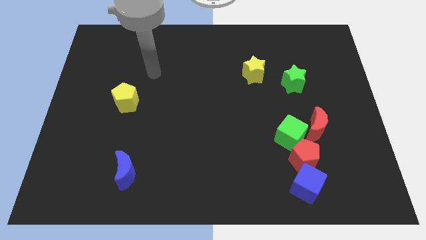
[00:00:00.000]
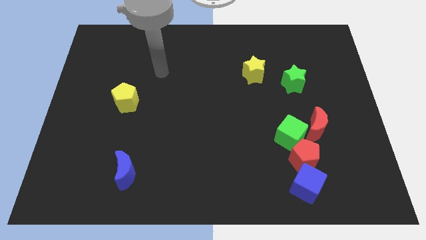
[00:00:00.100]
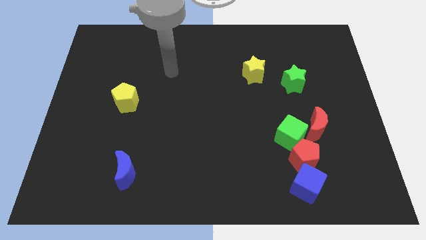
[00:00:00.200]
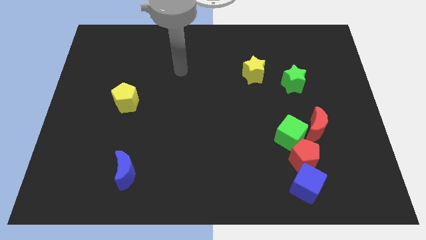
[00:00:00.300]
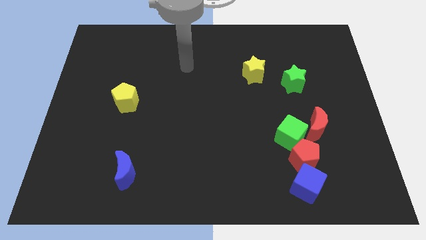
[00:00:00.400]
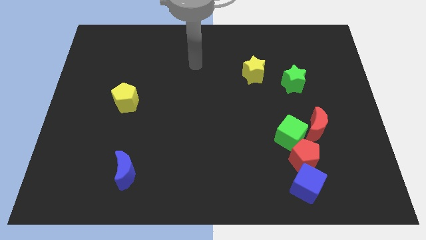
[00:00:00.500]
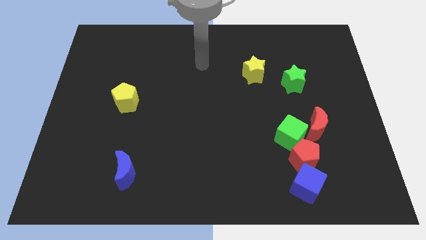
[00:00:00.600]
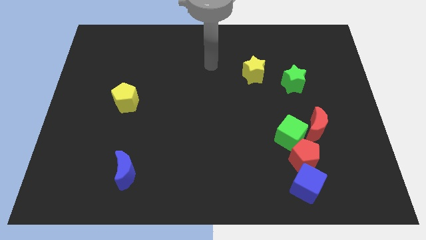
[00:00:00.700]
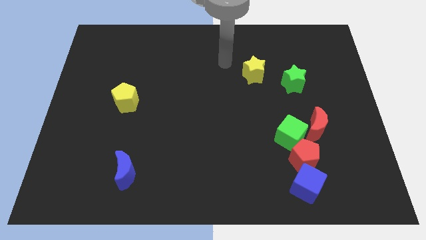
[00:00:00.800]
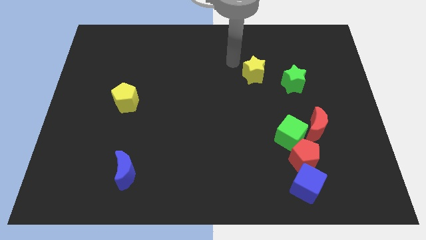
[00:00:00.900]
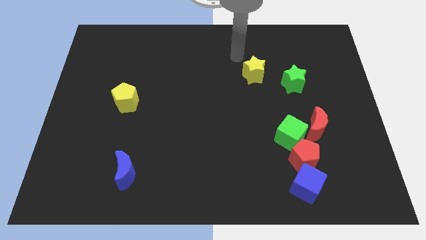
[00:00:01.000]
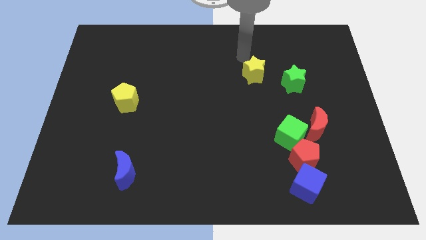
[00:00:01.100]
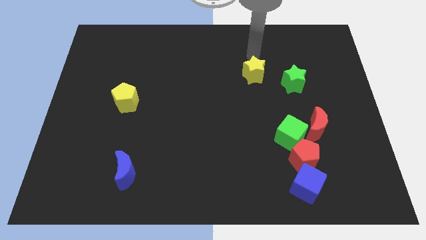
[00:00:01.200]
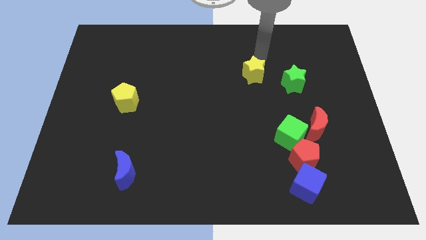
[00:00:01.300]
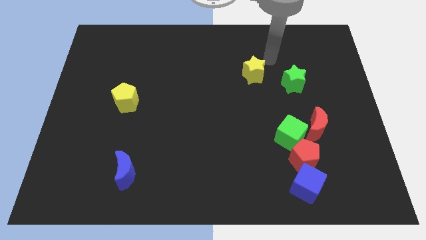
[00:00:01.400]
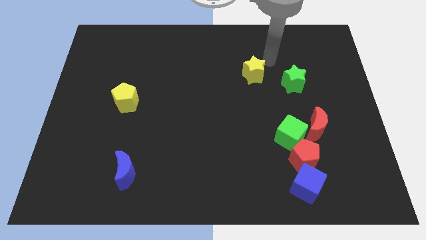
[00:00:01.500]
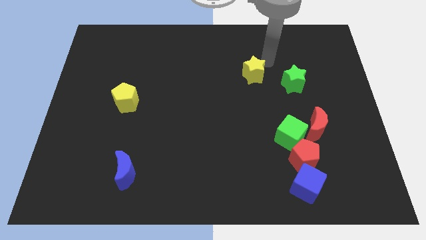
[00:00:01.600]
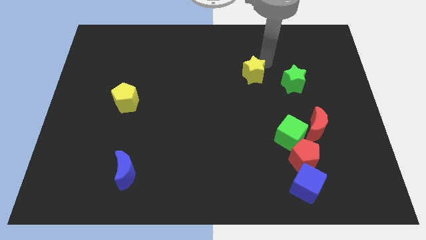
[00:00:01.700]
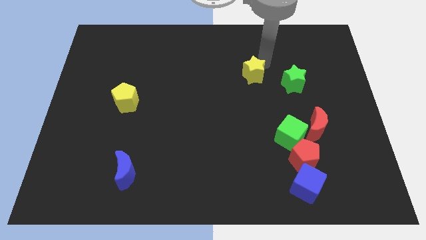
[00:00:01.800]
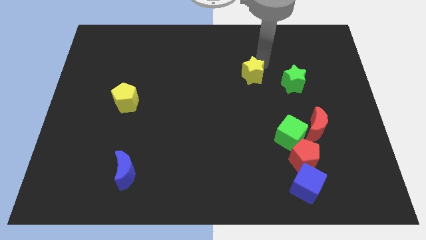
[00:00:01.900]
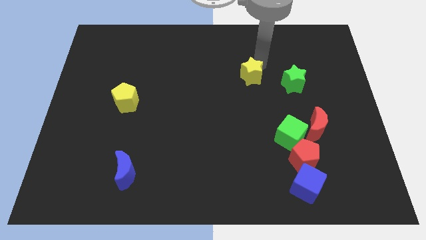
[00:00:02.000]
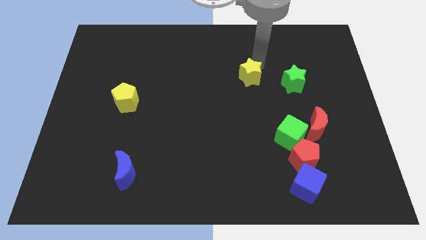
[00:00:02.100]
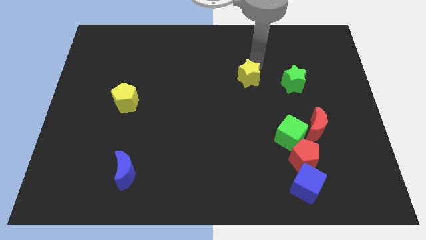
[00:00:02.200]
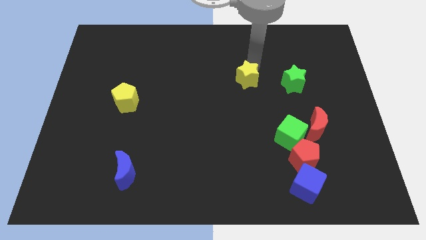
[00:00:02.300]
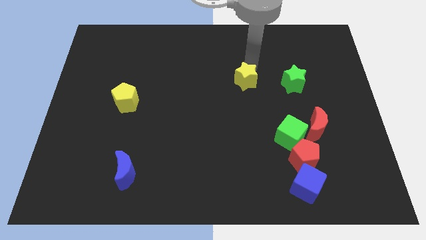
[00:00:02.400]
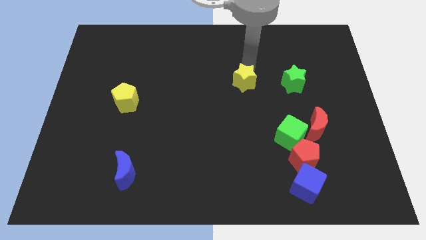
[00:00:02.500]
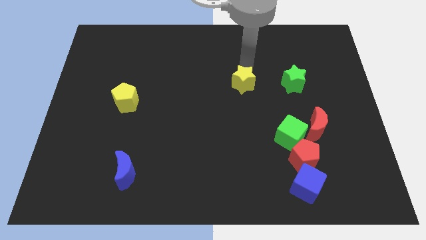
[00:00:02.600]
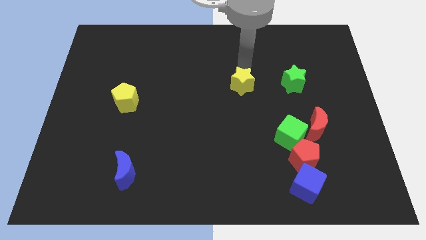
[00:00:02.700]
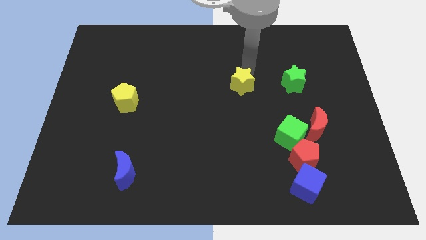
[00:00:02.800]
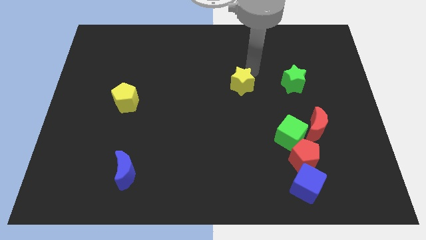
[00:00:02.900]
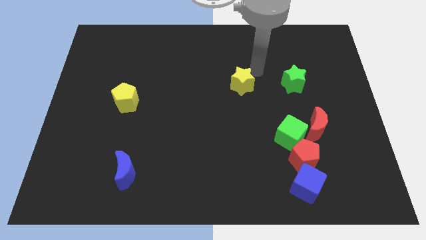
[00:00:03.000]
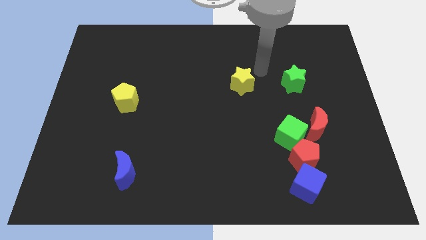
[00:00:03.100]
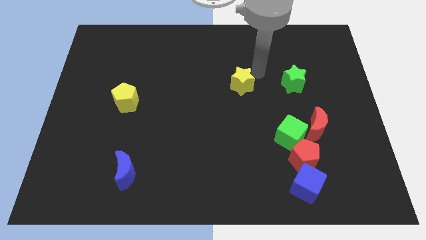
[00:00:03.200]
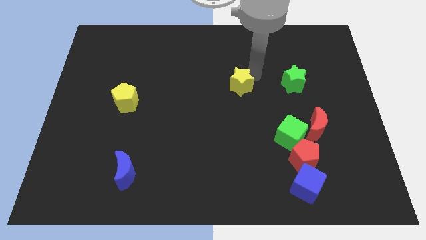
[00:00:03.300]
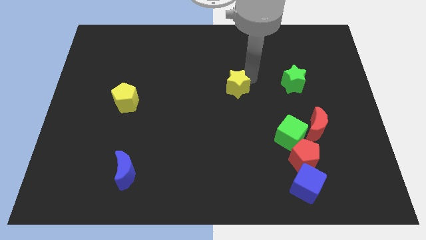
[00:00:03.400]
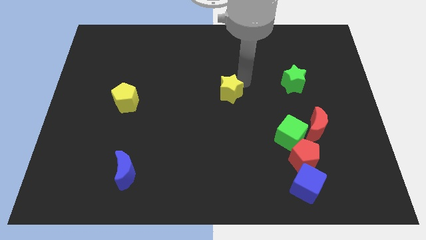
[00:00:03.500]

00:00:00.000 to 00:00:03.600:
slightly push the yellow star downwards and to the left

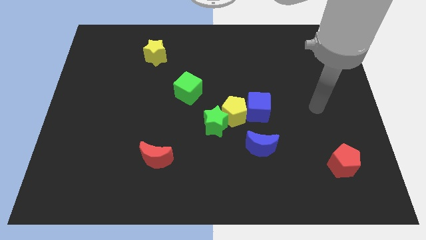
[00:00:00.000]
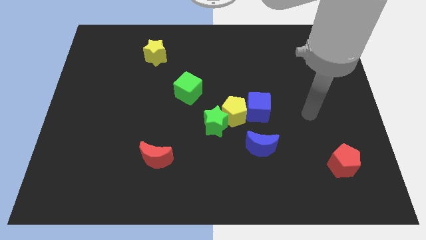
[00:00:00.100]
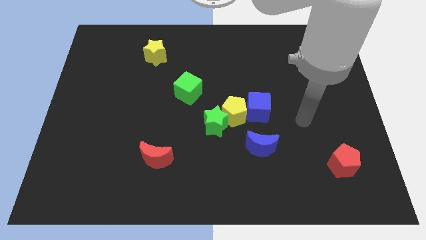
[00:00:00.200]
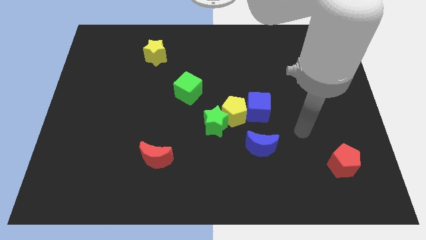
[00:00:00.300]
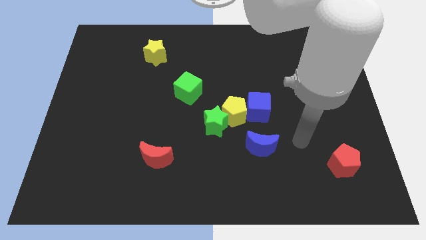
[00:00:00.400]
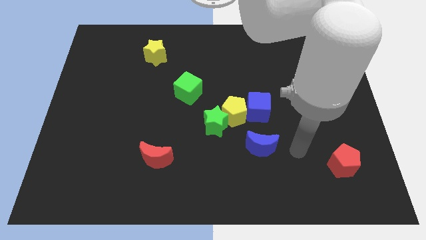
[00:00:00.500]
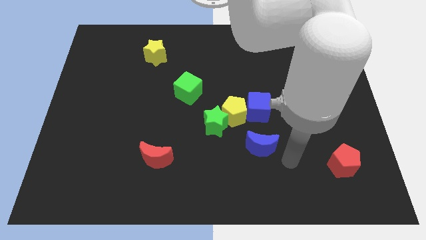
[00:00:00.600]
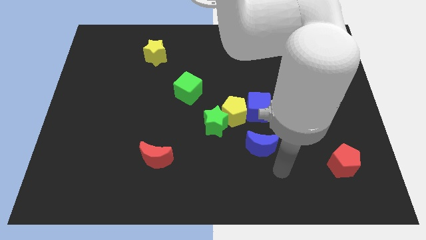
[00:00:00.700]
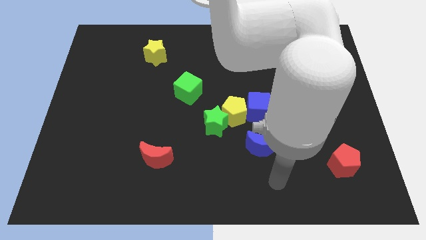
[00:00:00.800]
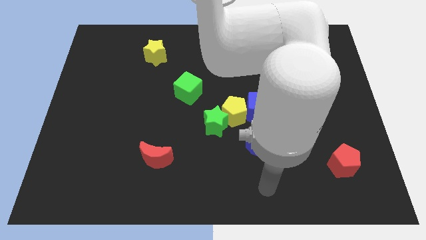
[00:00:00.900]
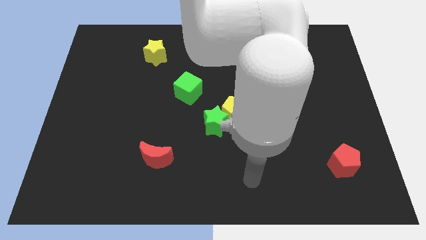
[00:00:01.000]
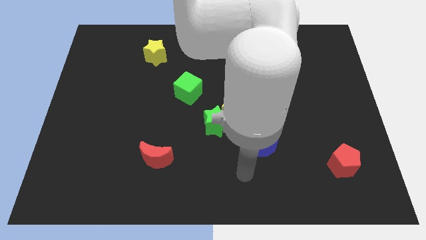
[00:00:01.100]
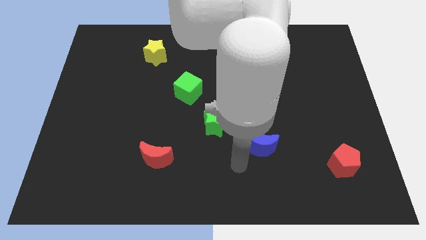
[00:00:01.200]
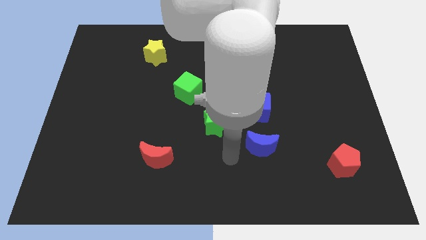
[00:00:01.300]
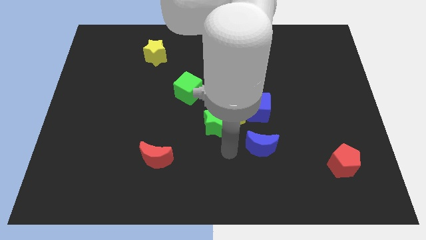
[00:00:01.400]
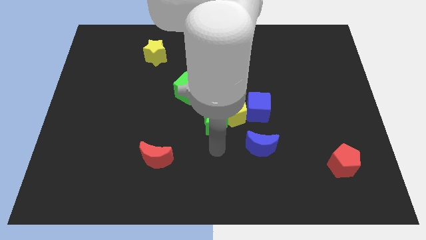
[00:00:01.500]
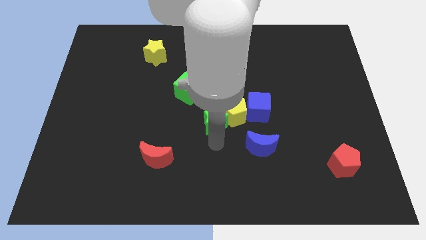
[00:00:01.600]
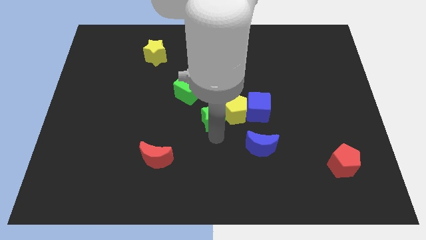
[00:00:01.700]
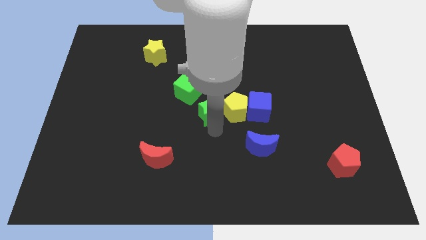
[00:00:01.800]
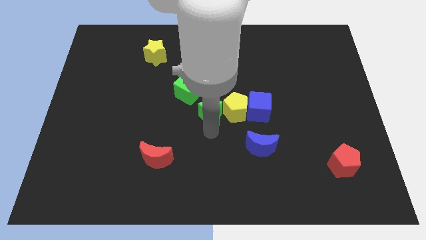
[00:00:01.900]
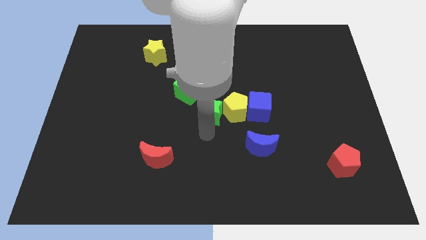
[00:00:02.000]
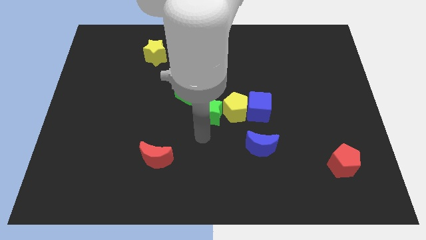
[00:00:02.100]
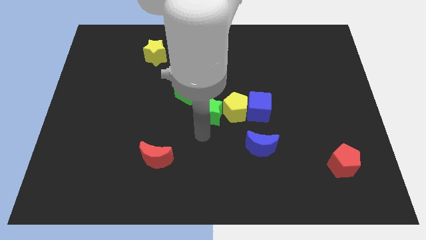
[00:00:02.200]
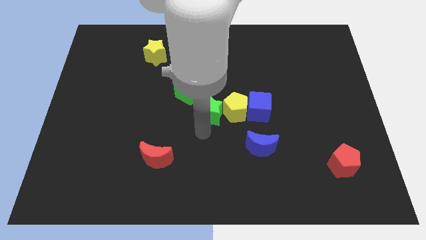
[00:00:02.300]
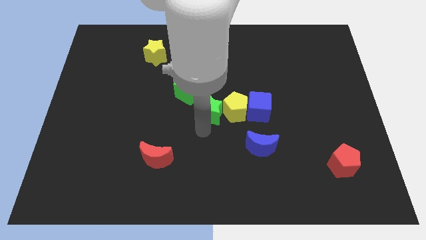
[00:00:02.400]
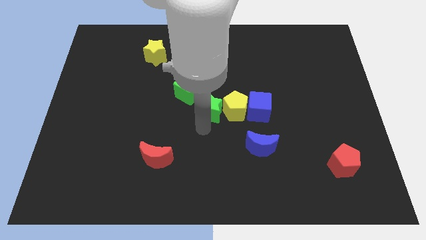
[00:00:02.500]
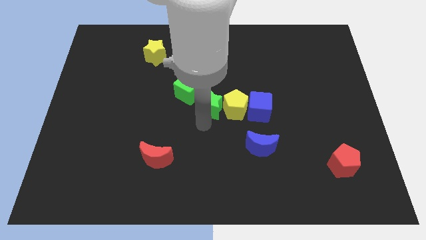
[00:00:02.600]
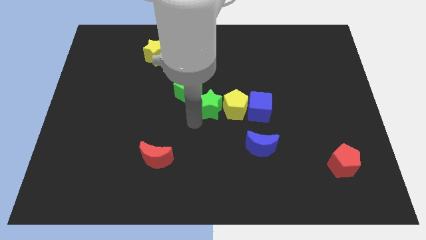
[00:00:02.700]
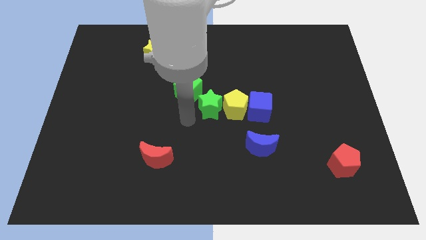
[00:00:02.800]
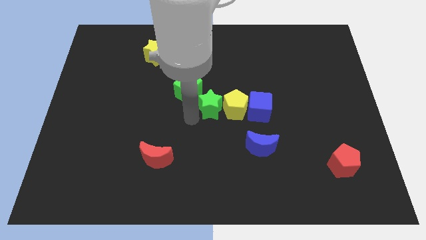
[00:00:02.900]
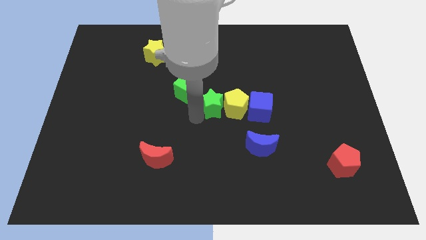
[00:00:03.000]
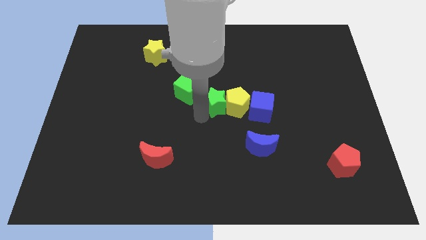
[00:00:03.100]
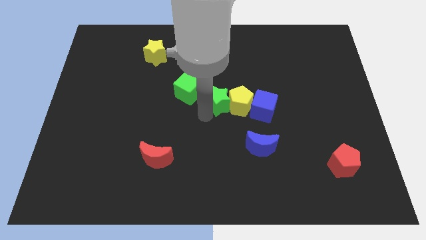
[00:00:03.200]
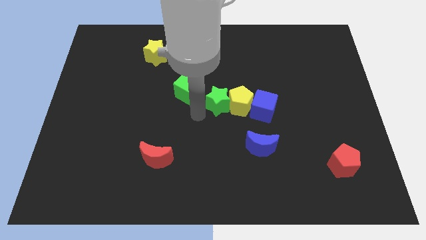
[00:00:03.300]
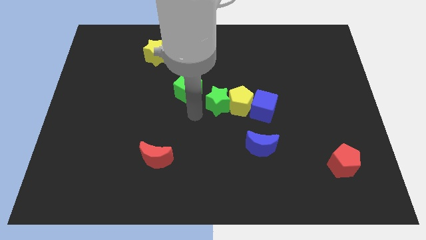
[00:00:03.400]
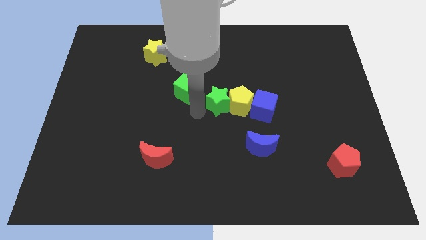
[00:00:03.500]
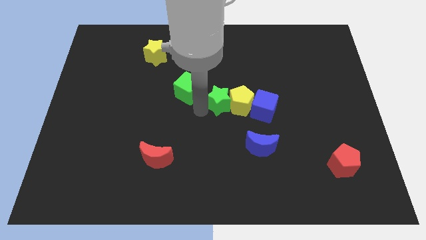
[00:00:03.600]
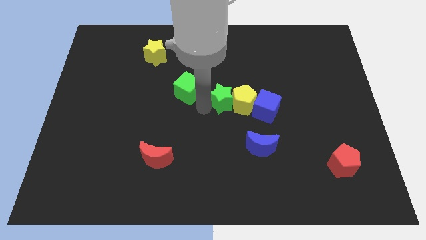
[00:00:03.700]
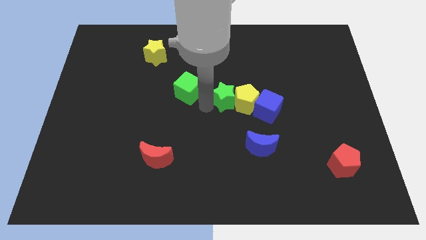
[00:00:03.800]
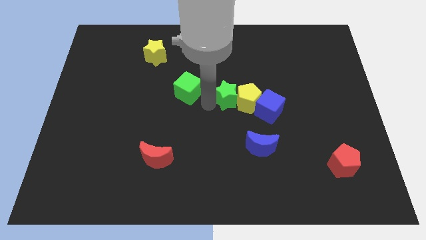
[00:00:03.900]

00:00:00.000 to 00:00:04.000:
push the green star somewhat up and then right
